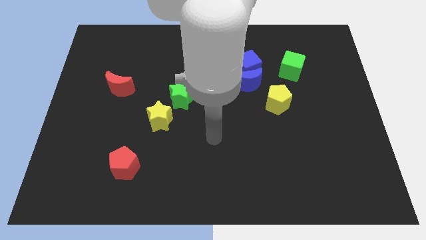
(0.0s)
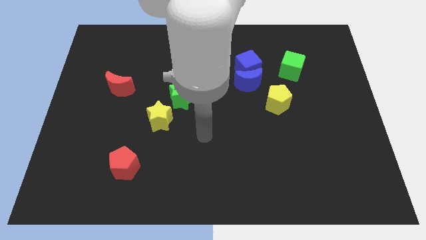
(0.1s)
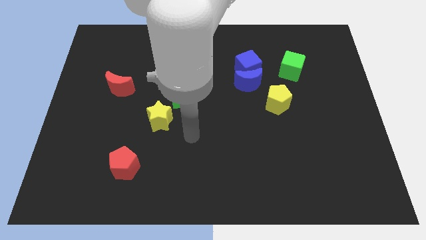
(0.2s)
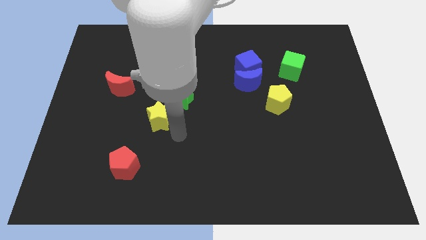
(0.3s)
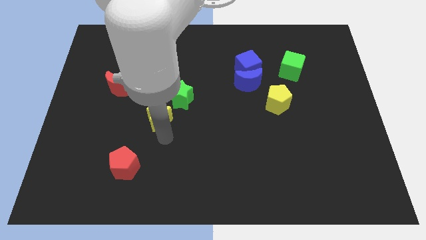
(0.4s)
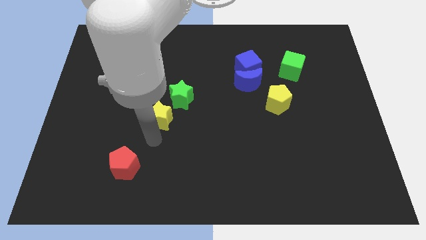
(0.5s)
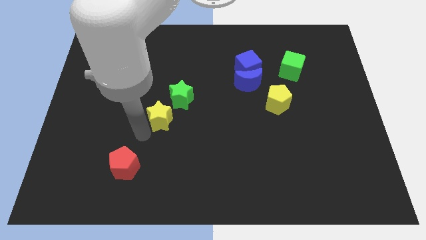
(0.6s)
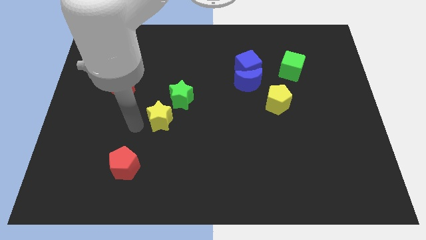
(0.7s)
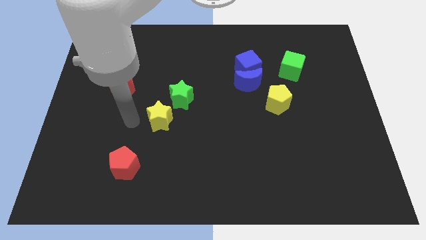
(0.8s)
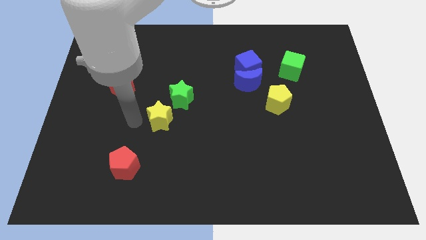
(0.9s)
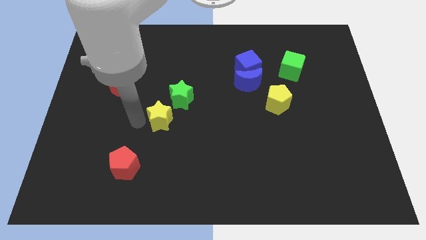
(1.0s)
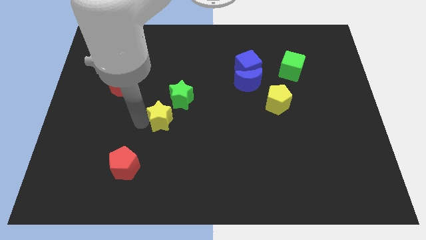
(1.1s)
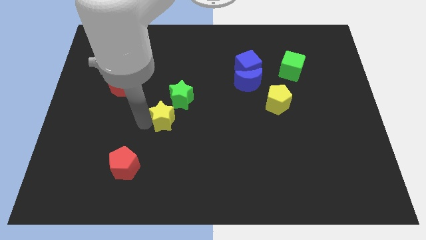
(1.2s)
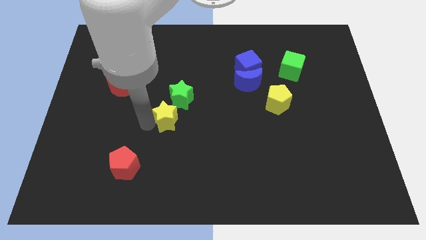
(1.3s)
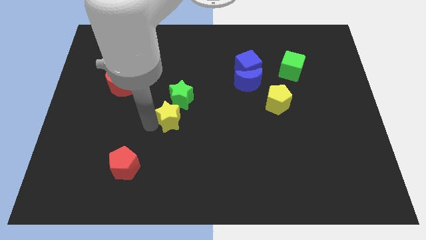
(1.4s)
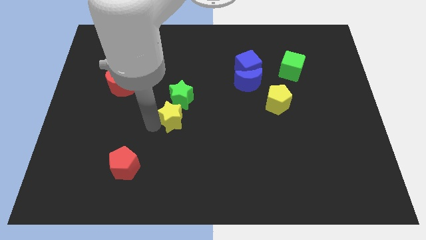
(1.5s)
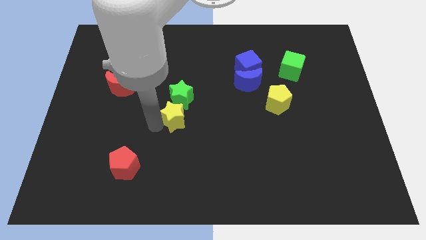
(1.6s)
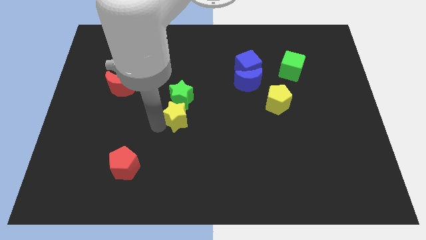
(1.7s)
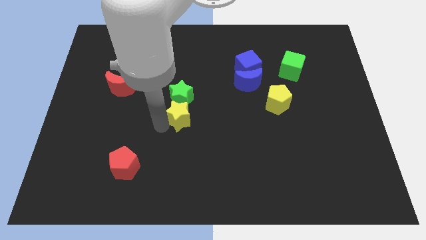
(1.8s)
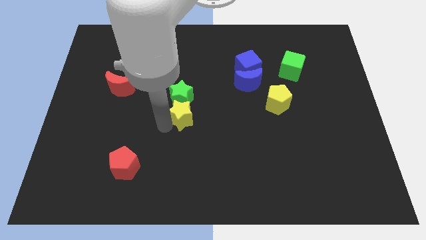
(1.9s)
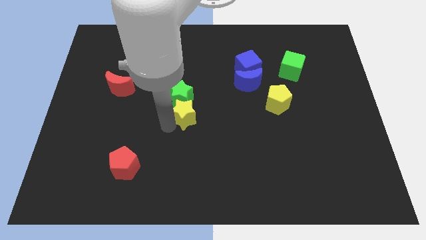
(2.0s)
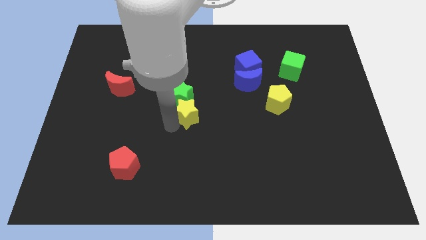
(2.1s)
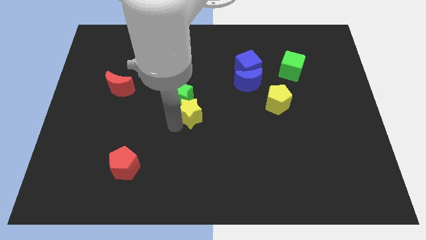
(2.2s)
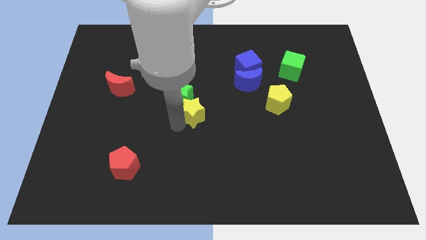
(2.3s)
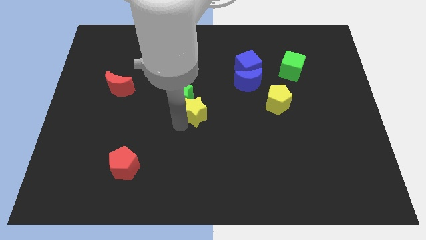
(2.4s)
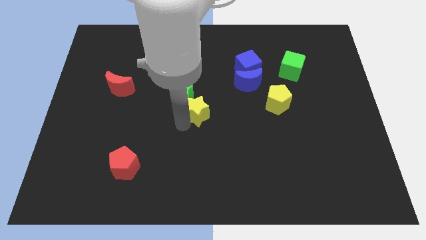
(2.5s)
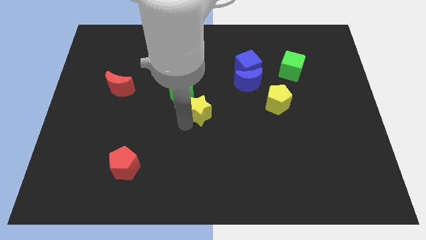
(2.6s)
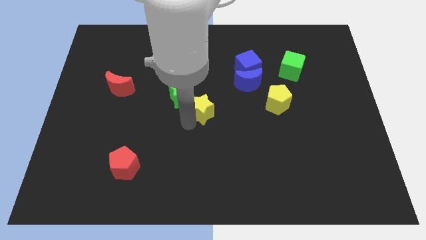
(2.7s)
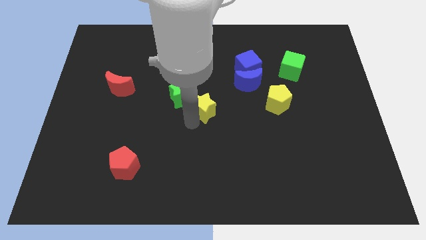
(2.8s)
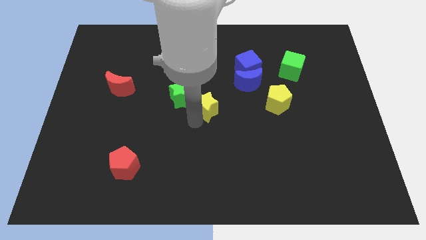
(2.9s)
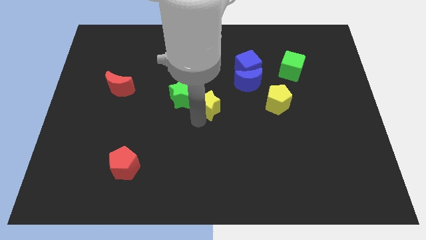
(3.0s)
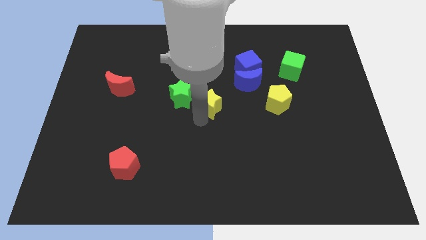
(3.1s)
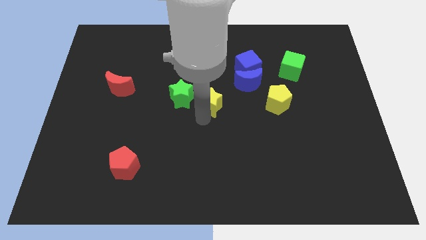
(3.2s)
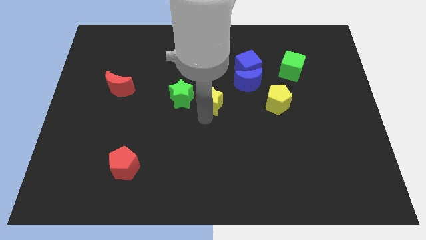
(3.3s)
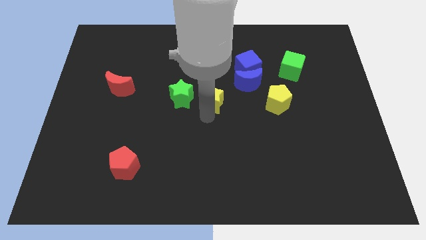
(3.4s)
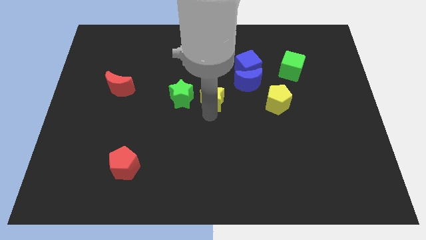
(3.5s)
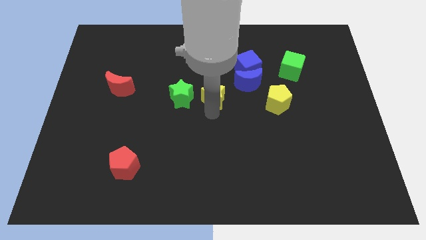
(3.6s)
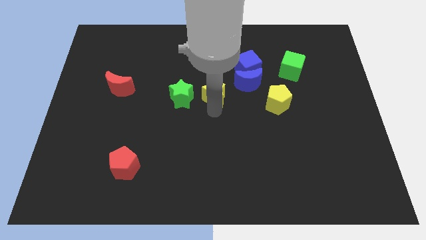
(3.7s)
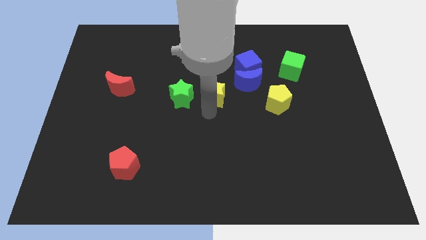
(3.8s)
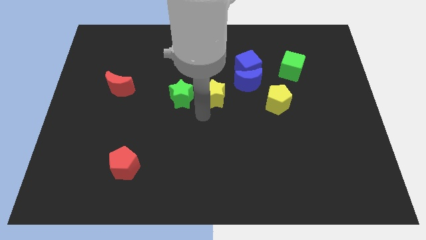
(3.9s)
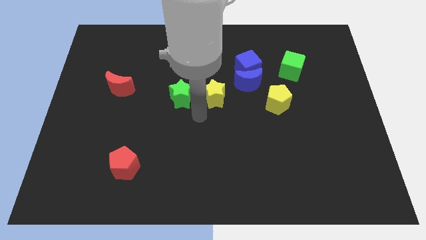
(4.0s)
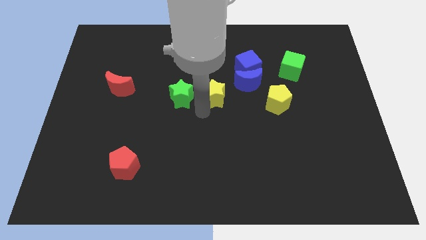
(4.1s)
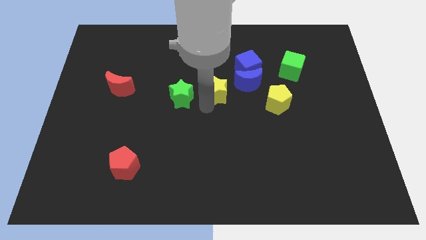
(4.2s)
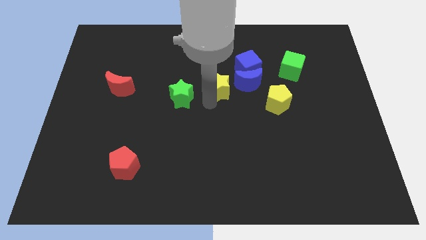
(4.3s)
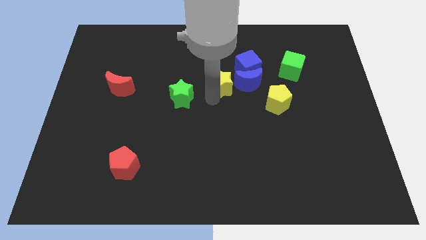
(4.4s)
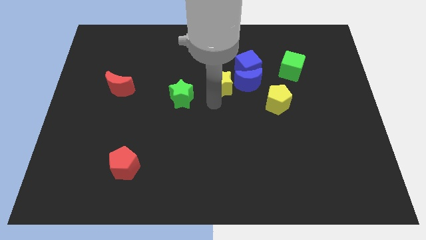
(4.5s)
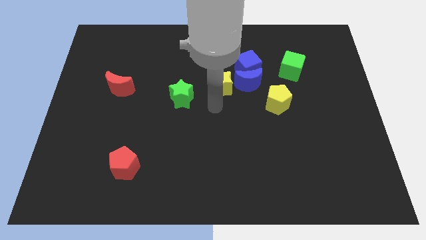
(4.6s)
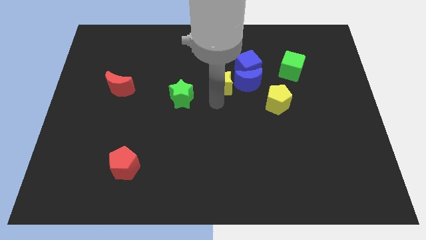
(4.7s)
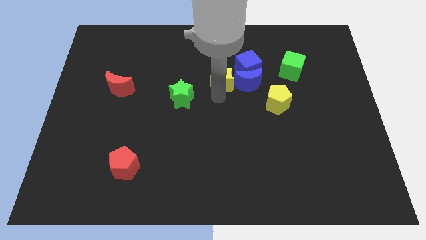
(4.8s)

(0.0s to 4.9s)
push the yellow star to the top left of the blue moon

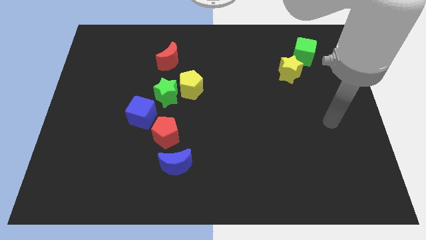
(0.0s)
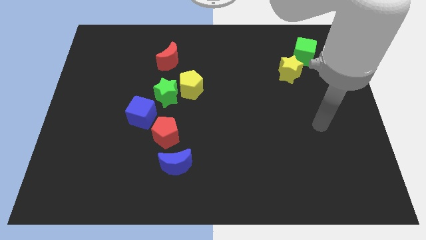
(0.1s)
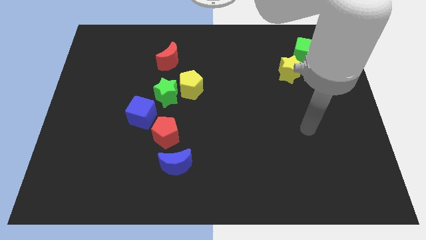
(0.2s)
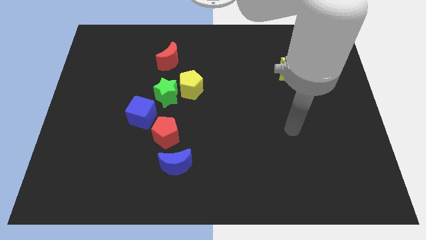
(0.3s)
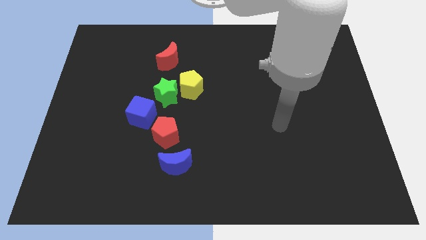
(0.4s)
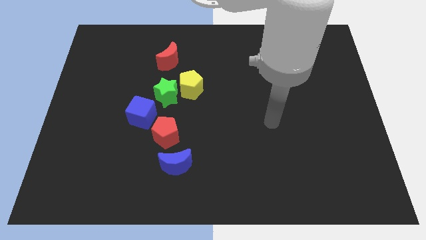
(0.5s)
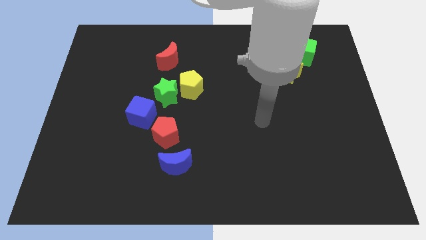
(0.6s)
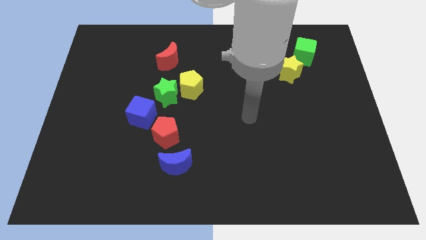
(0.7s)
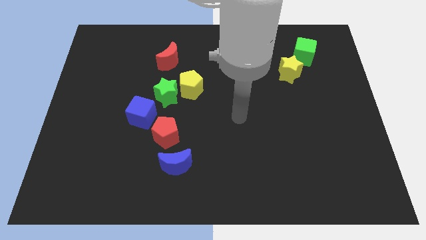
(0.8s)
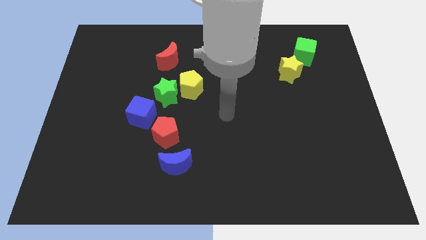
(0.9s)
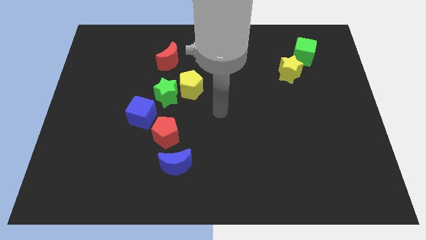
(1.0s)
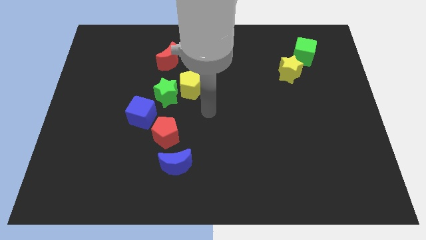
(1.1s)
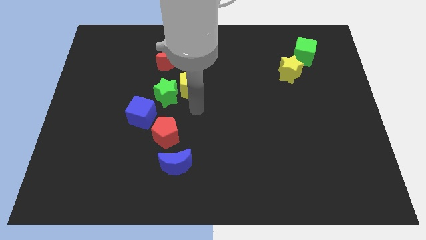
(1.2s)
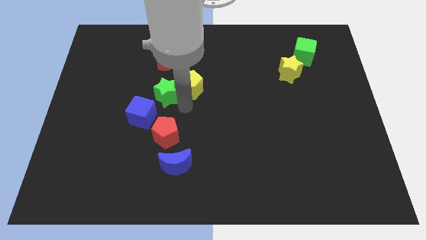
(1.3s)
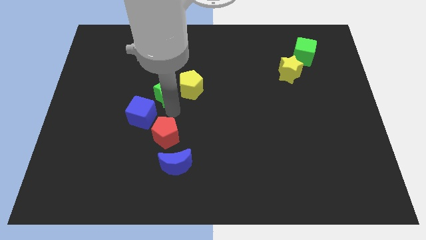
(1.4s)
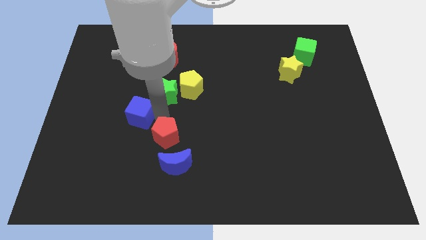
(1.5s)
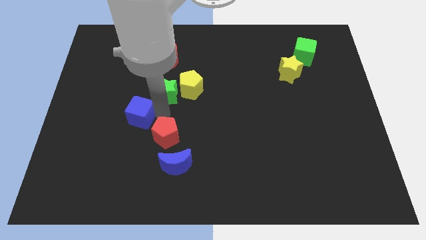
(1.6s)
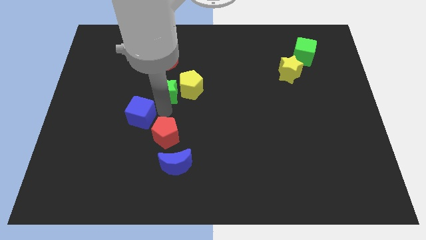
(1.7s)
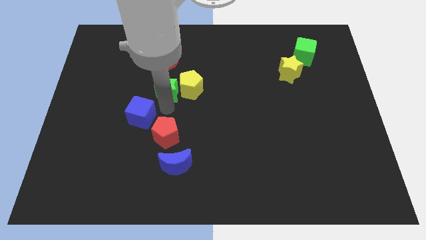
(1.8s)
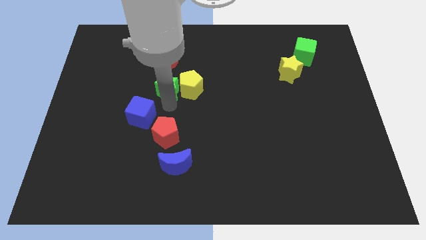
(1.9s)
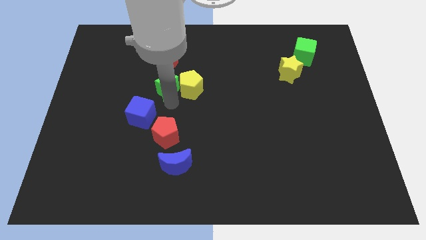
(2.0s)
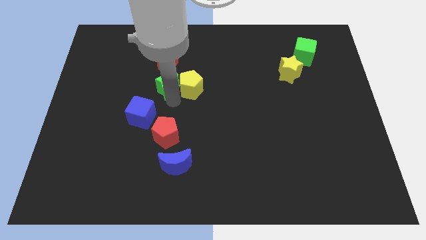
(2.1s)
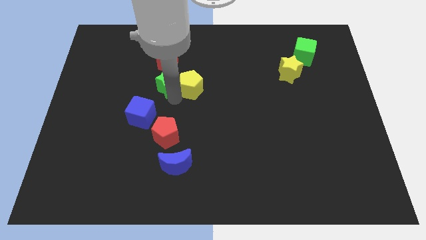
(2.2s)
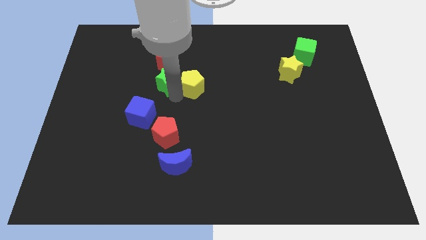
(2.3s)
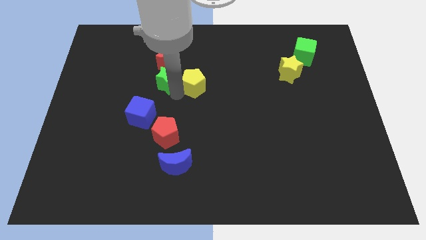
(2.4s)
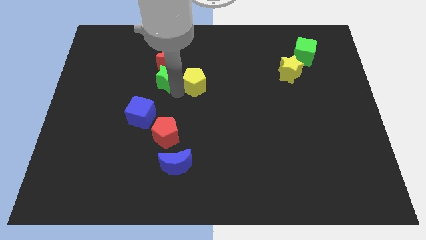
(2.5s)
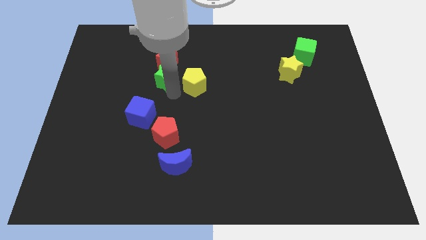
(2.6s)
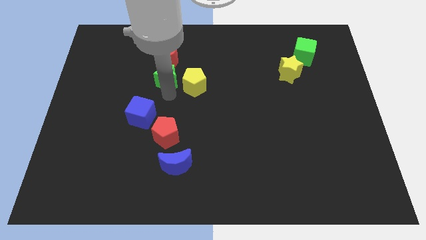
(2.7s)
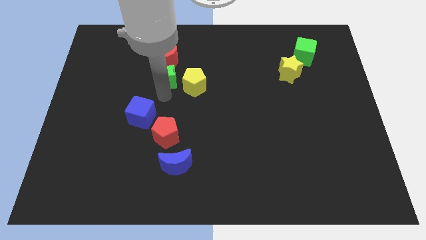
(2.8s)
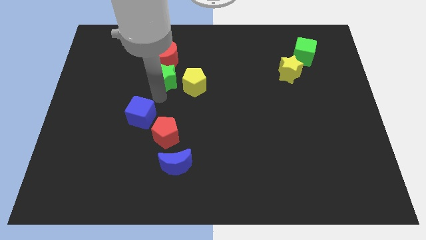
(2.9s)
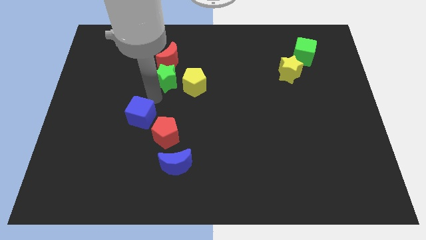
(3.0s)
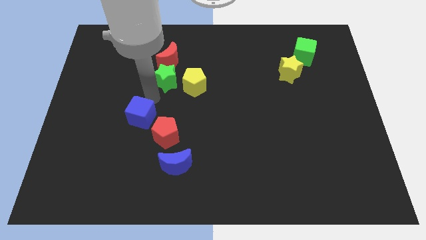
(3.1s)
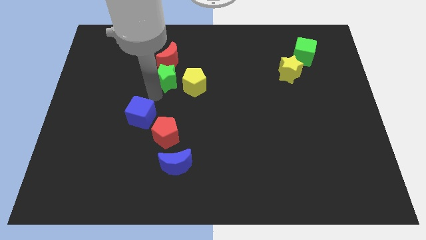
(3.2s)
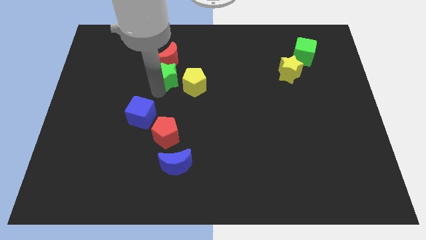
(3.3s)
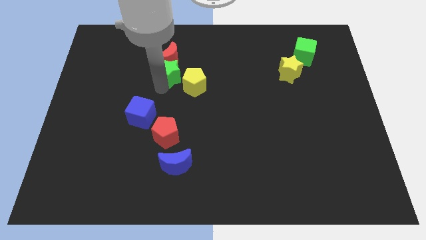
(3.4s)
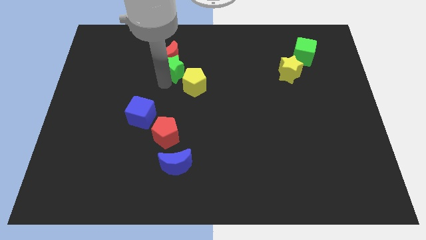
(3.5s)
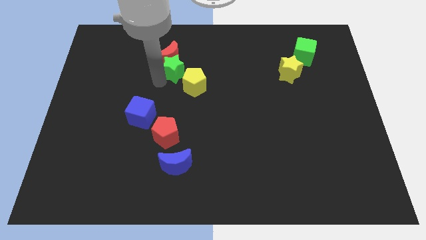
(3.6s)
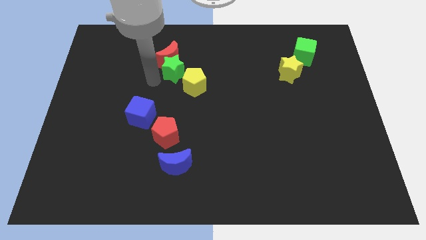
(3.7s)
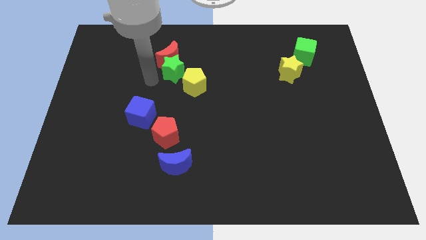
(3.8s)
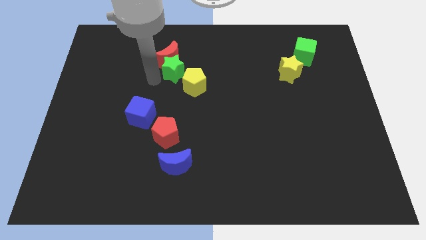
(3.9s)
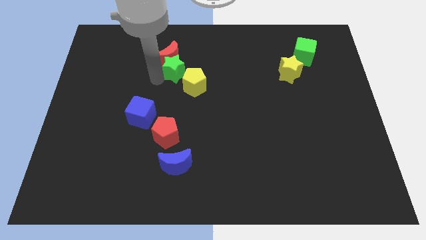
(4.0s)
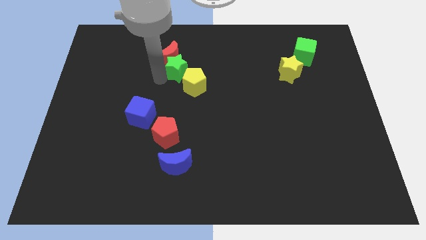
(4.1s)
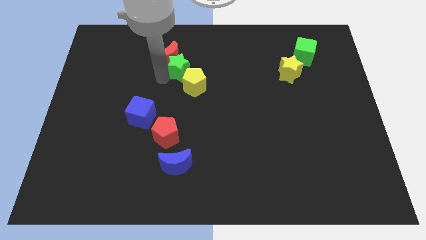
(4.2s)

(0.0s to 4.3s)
put the green star to the right side of the red moon
